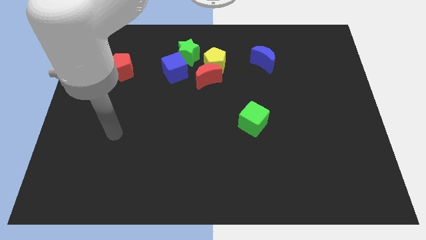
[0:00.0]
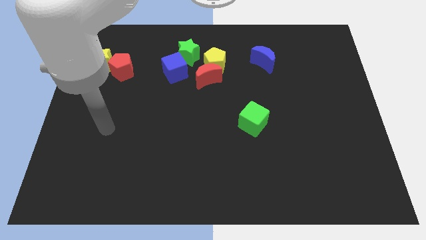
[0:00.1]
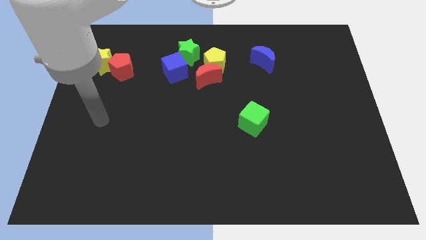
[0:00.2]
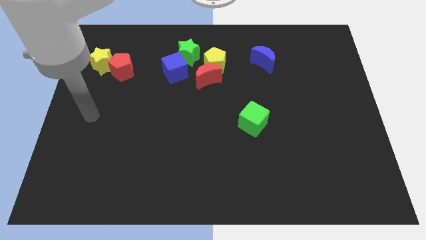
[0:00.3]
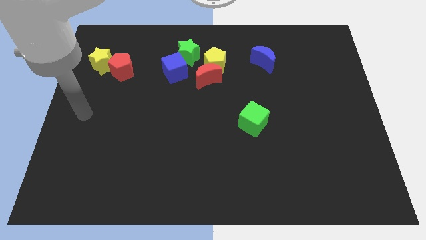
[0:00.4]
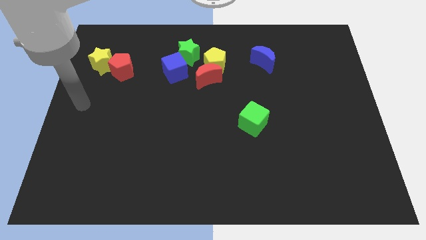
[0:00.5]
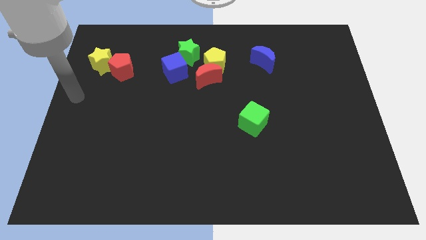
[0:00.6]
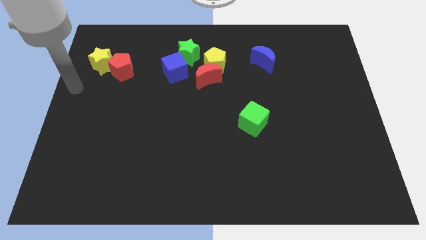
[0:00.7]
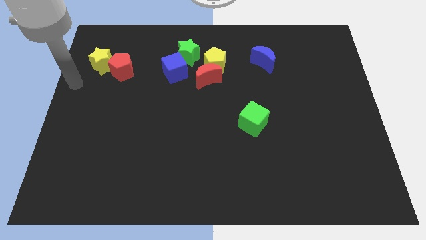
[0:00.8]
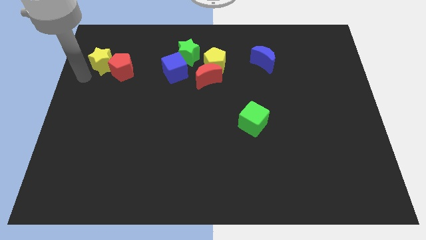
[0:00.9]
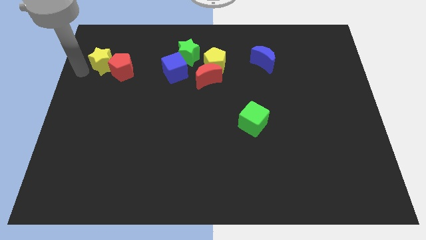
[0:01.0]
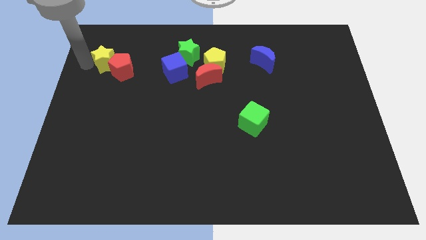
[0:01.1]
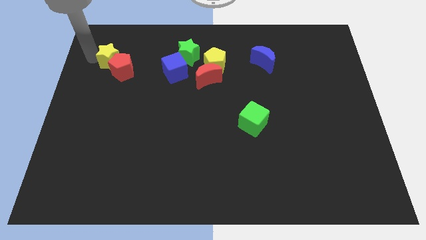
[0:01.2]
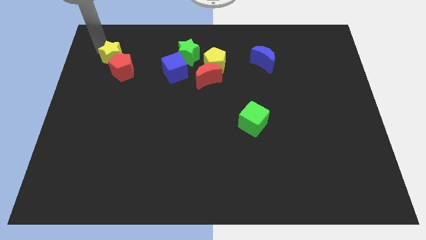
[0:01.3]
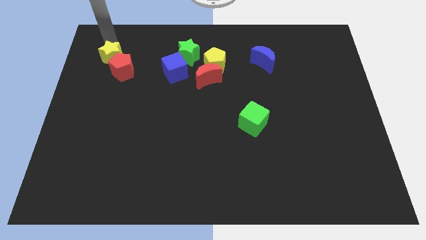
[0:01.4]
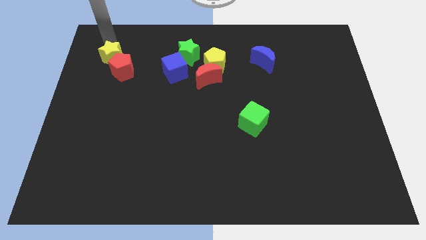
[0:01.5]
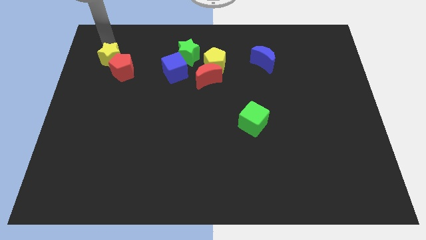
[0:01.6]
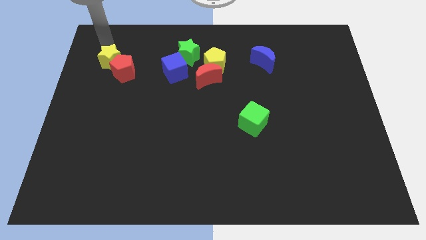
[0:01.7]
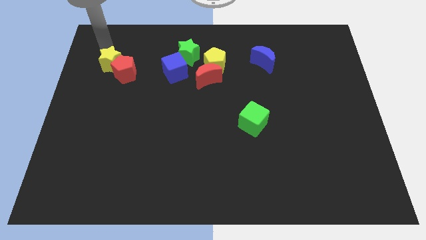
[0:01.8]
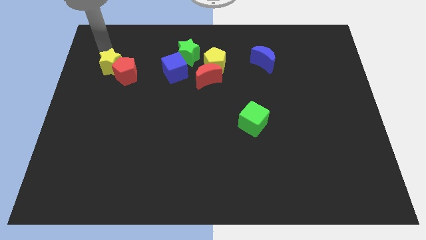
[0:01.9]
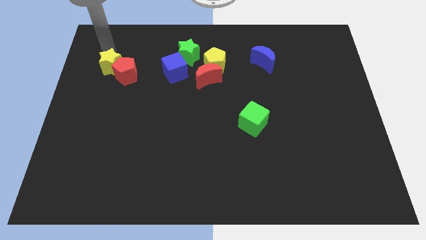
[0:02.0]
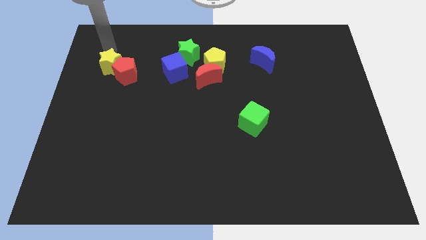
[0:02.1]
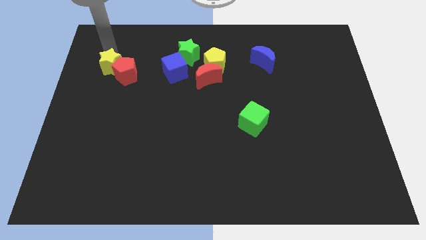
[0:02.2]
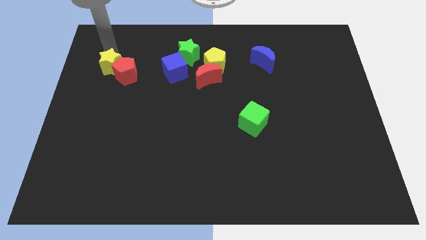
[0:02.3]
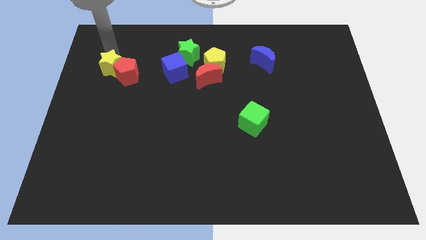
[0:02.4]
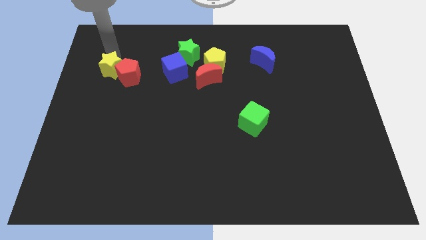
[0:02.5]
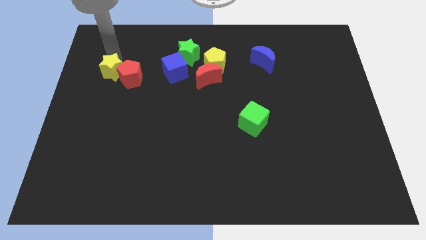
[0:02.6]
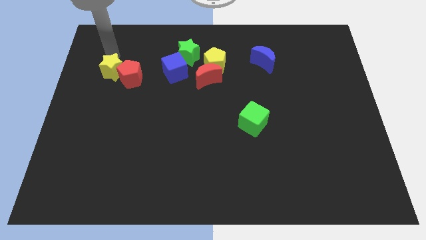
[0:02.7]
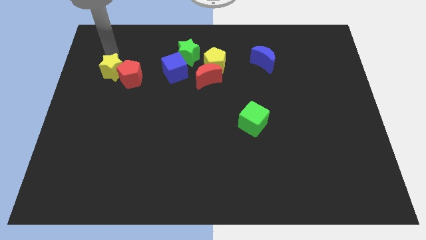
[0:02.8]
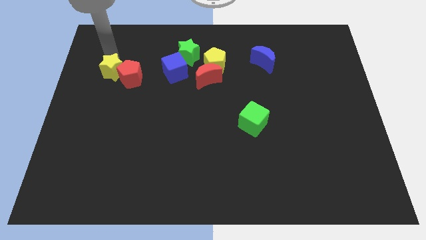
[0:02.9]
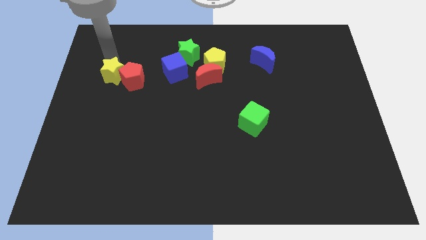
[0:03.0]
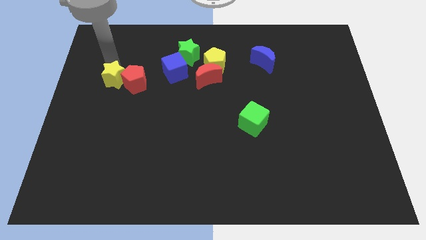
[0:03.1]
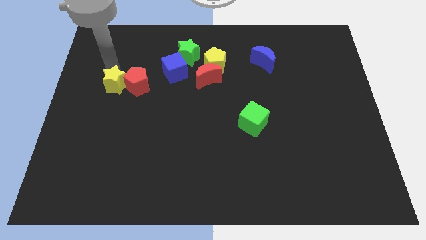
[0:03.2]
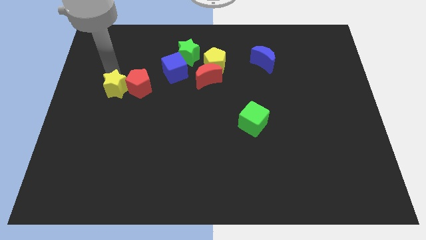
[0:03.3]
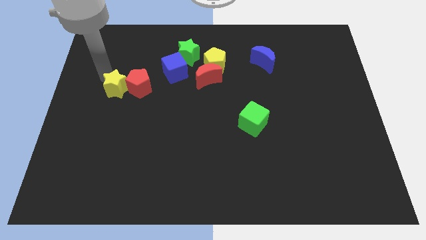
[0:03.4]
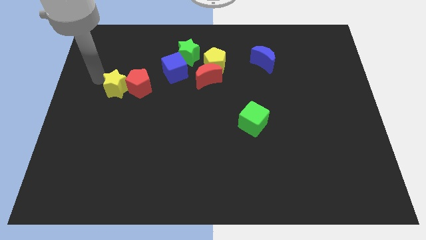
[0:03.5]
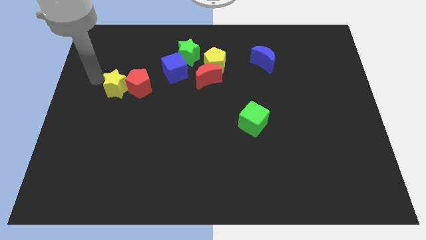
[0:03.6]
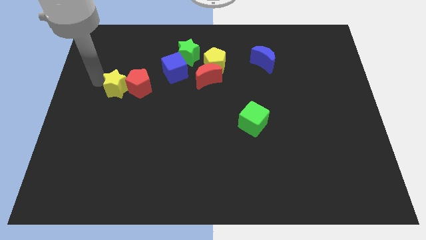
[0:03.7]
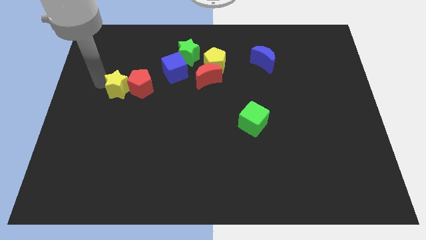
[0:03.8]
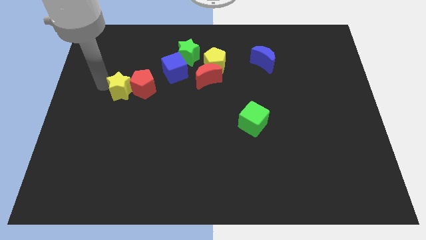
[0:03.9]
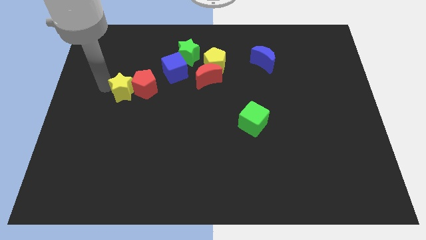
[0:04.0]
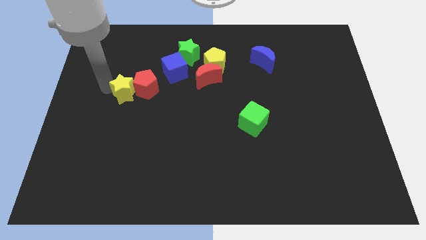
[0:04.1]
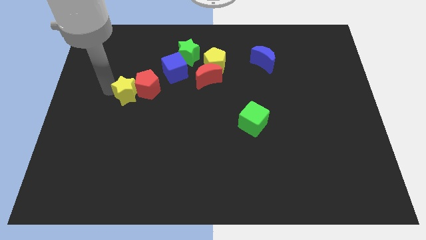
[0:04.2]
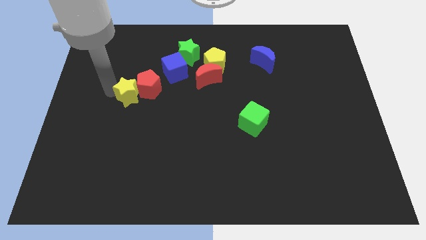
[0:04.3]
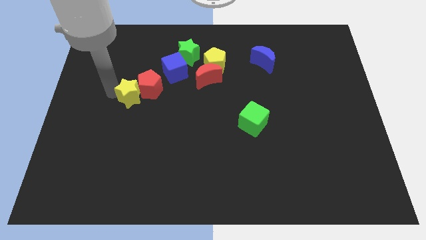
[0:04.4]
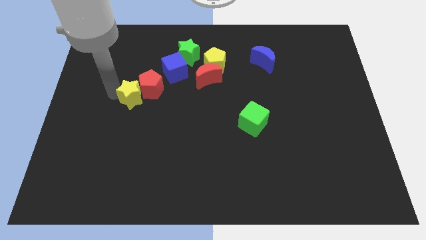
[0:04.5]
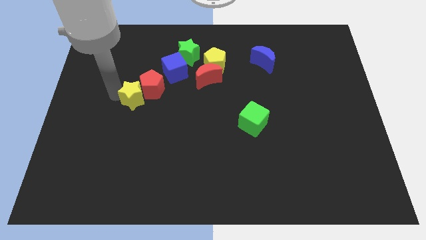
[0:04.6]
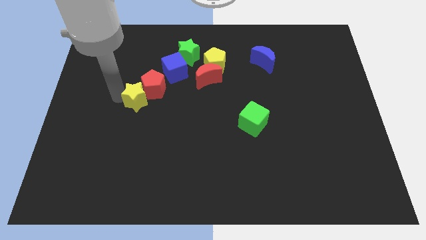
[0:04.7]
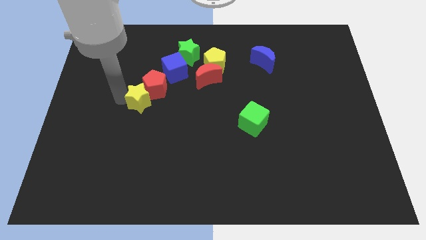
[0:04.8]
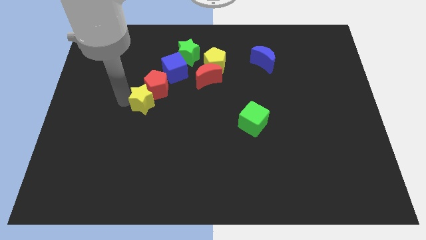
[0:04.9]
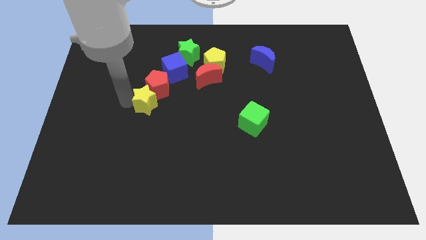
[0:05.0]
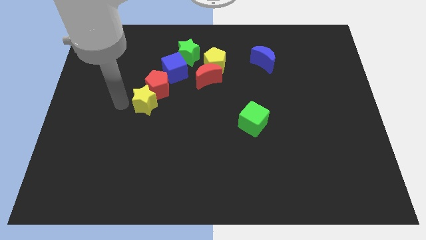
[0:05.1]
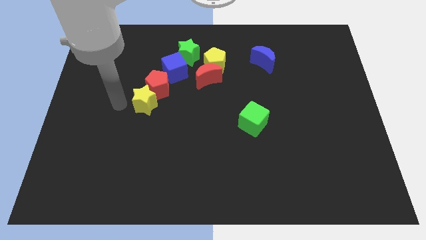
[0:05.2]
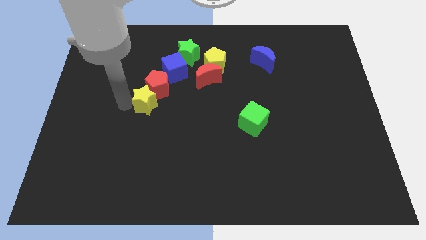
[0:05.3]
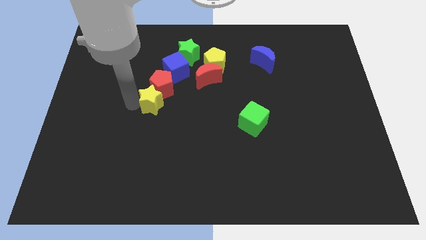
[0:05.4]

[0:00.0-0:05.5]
slide the yellow star to the bottom of the blue cube

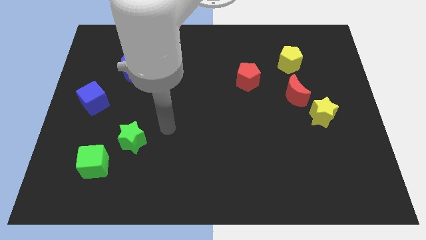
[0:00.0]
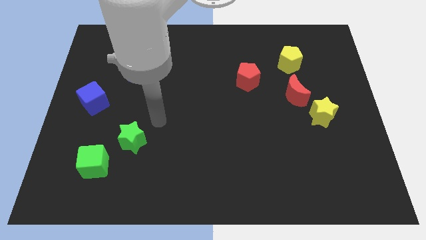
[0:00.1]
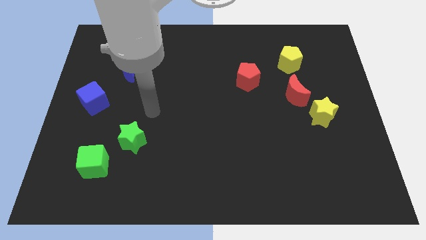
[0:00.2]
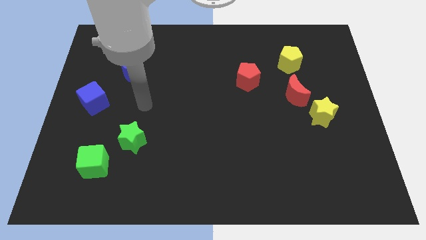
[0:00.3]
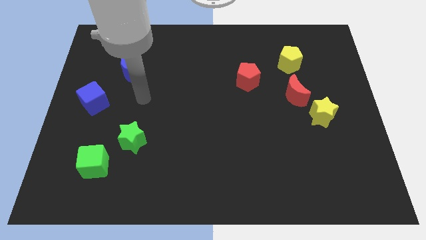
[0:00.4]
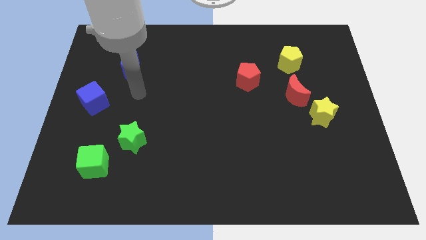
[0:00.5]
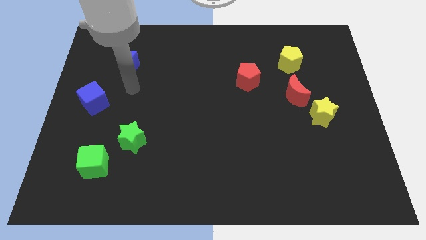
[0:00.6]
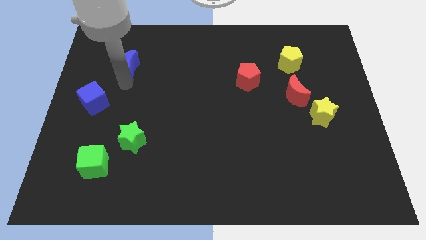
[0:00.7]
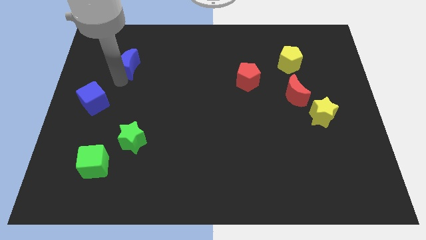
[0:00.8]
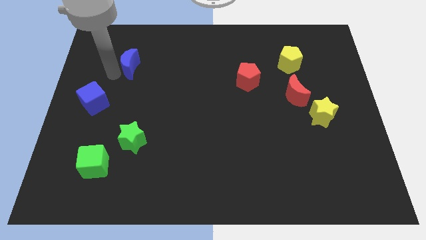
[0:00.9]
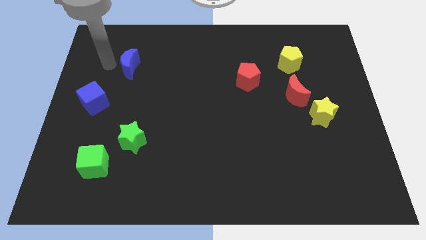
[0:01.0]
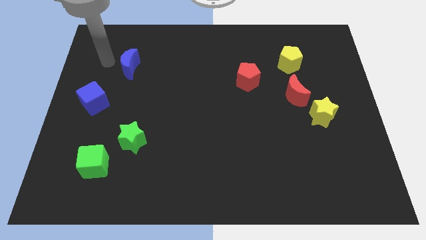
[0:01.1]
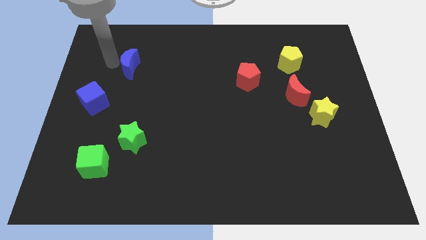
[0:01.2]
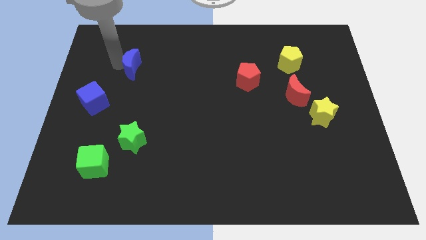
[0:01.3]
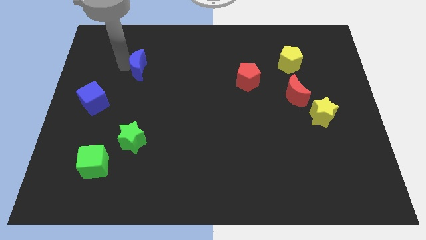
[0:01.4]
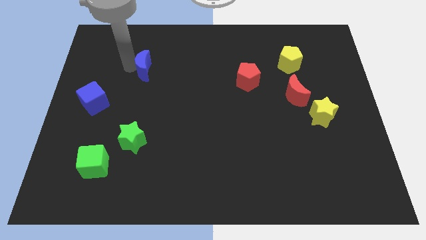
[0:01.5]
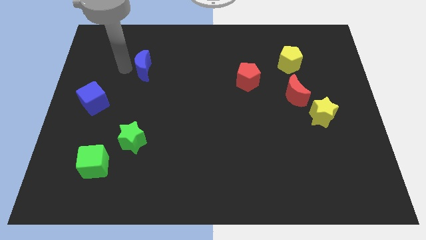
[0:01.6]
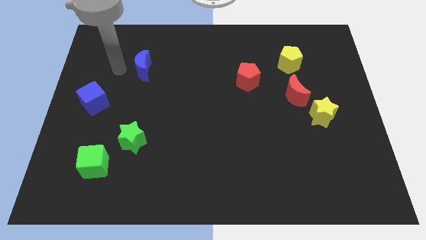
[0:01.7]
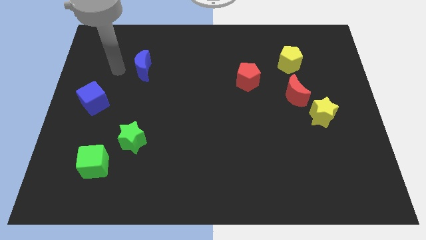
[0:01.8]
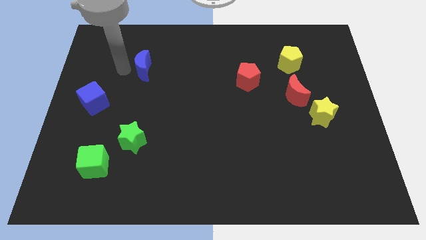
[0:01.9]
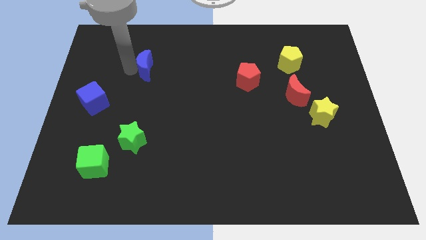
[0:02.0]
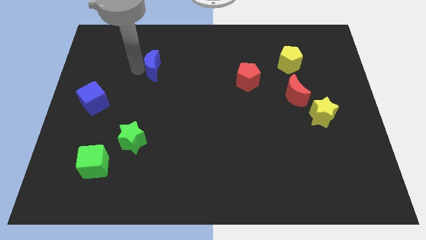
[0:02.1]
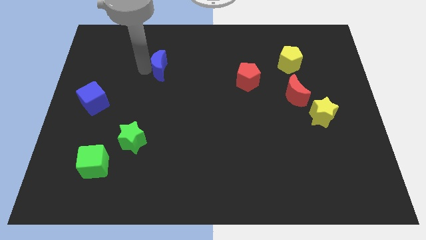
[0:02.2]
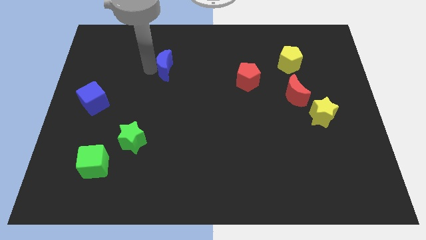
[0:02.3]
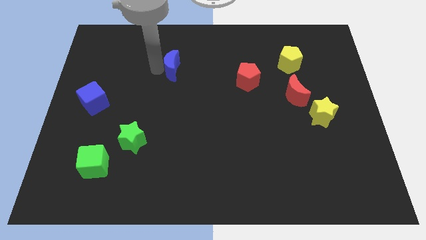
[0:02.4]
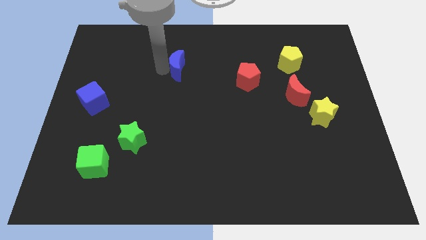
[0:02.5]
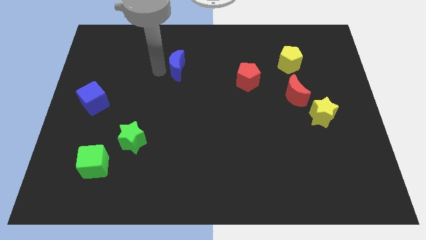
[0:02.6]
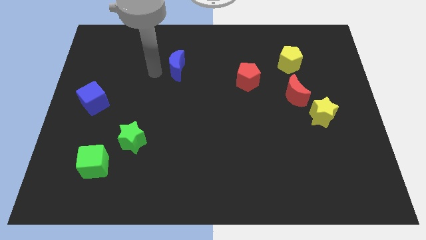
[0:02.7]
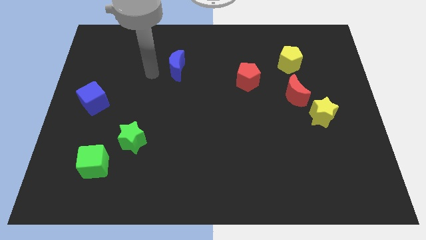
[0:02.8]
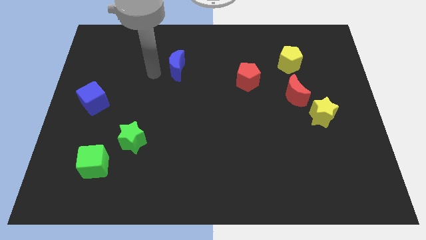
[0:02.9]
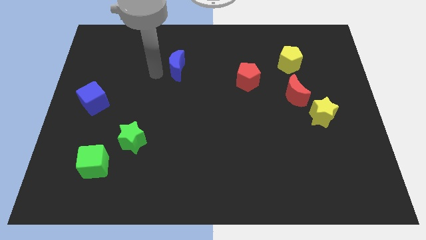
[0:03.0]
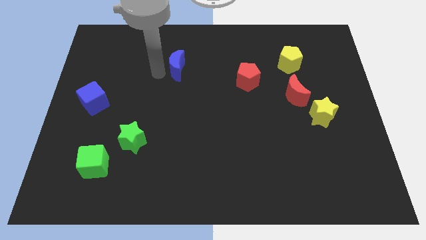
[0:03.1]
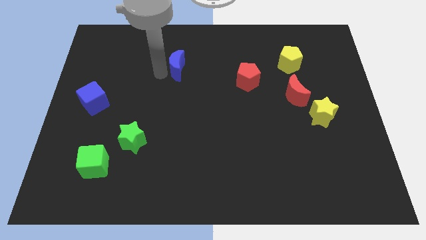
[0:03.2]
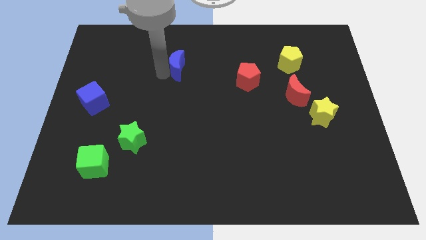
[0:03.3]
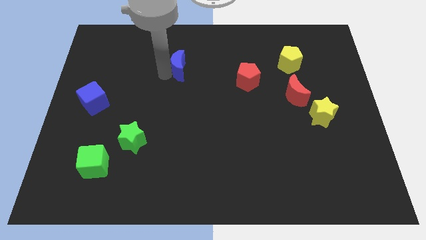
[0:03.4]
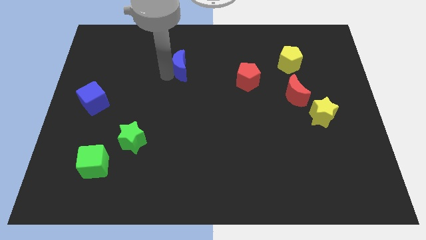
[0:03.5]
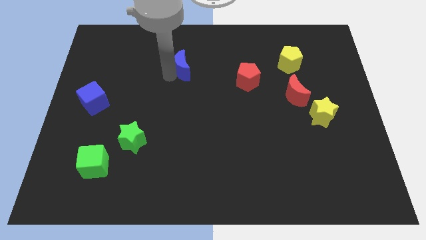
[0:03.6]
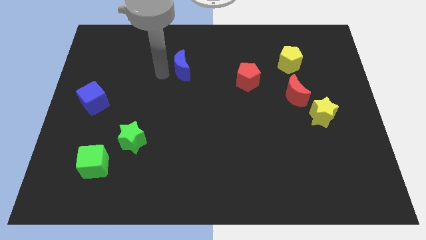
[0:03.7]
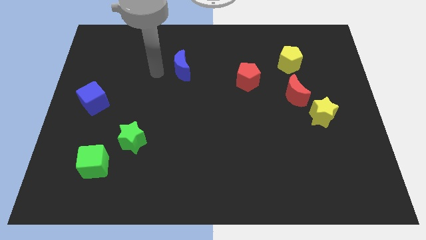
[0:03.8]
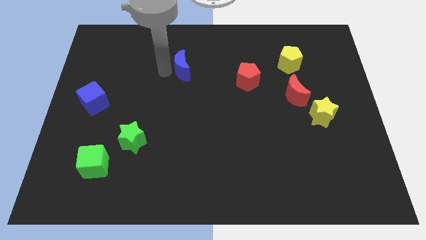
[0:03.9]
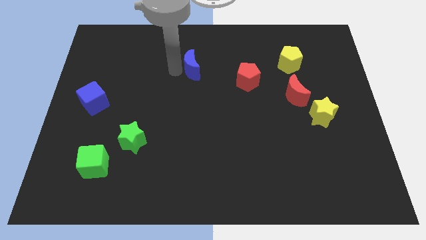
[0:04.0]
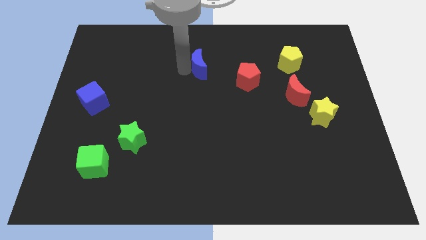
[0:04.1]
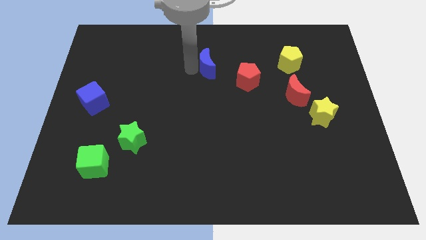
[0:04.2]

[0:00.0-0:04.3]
push the blue moon to the top left side of the red pentagon
